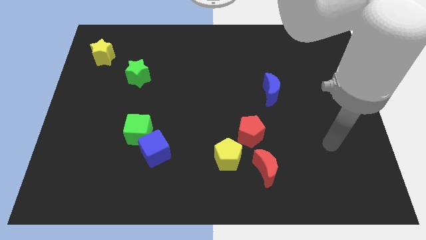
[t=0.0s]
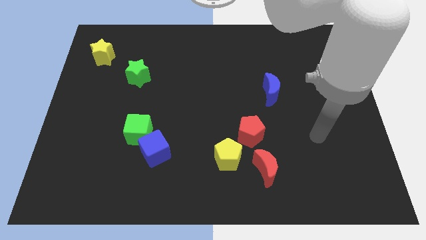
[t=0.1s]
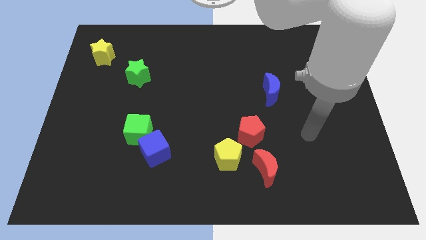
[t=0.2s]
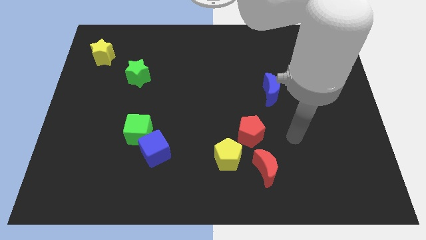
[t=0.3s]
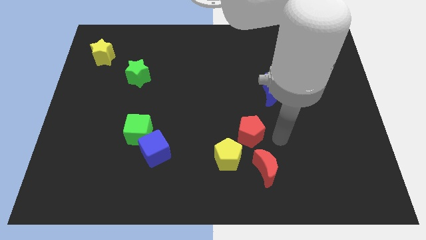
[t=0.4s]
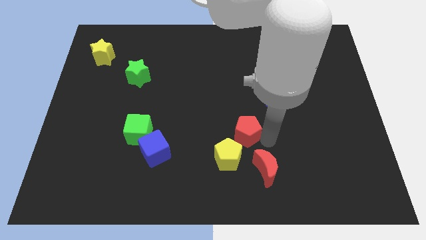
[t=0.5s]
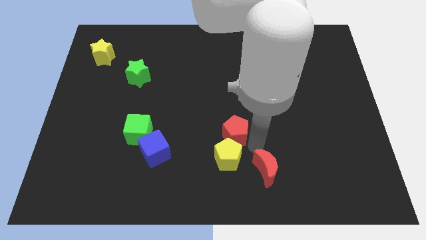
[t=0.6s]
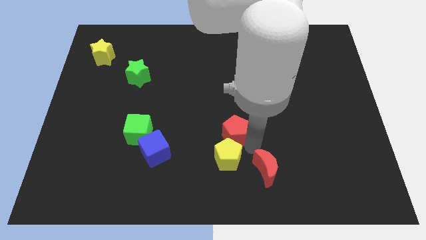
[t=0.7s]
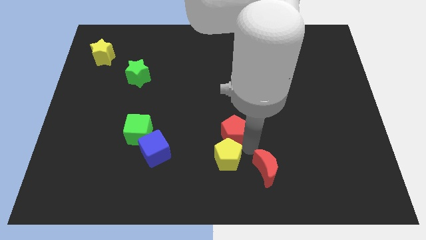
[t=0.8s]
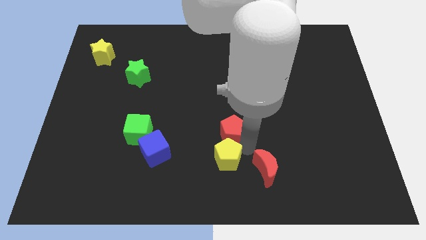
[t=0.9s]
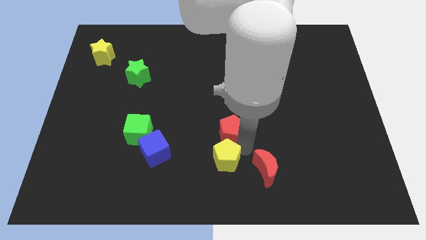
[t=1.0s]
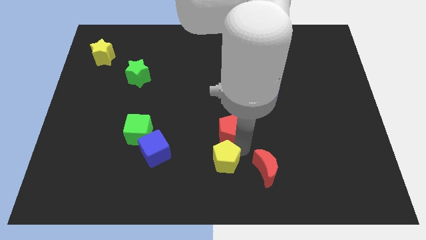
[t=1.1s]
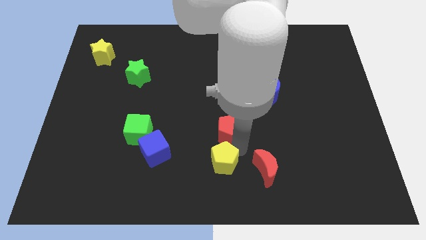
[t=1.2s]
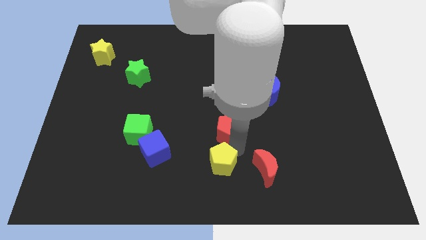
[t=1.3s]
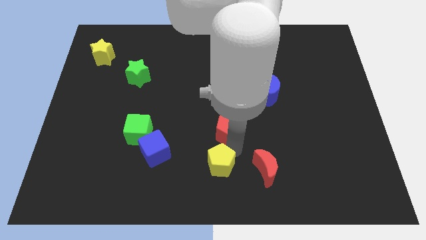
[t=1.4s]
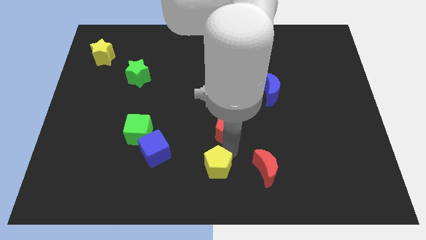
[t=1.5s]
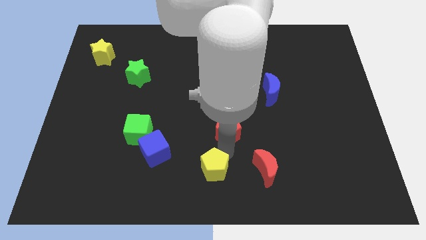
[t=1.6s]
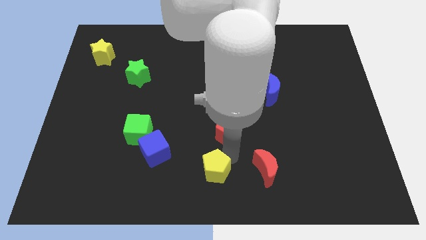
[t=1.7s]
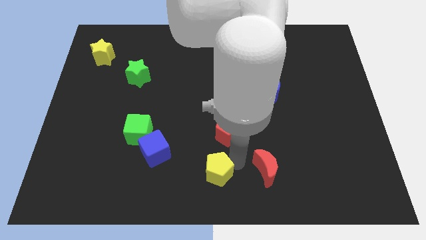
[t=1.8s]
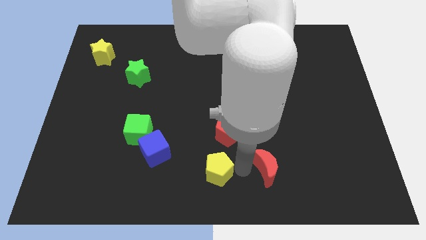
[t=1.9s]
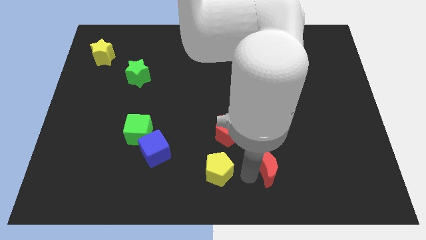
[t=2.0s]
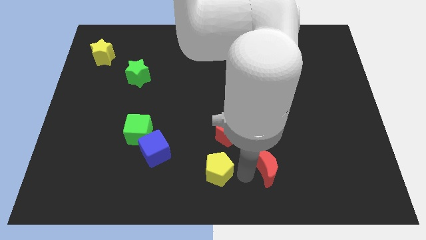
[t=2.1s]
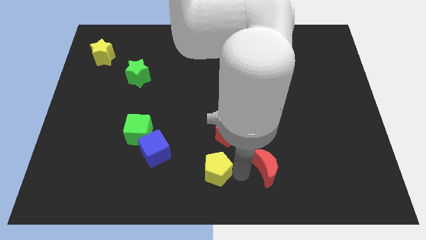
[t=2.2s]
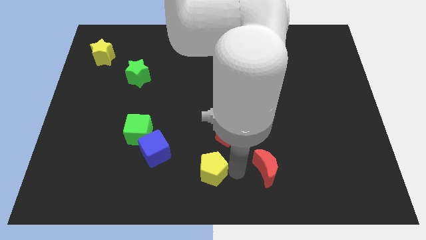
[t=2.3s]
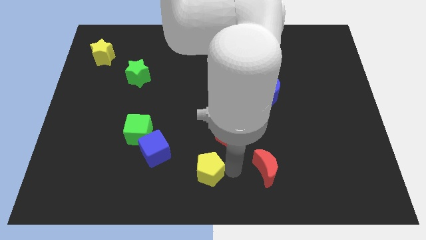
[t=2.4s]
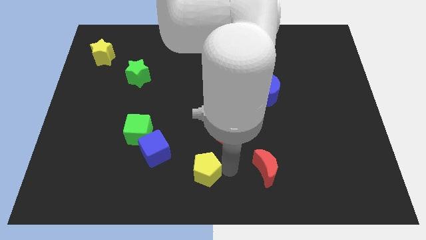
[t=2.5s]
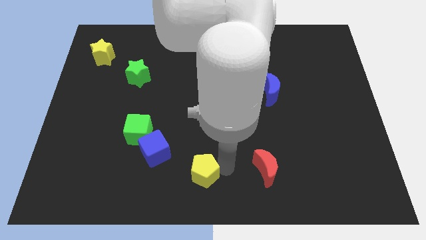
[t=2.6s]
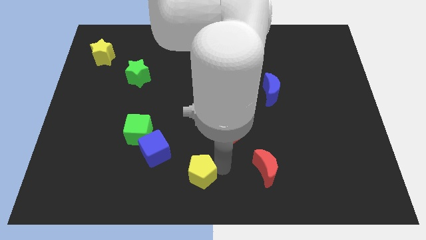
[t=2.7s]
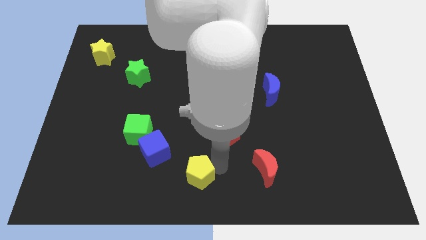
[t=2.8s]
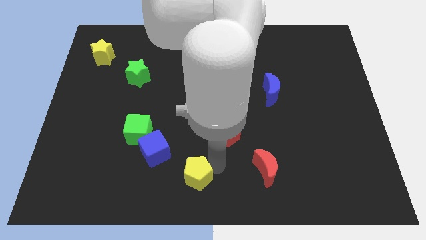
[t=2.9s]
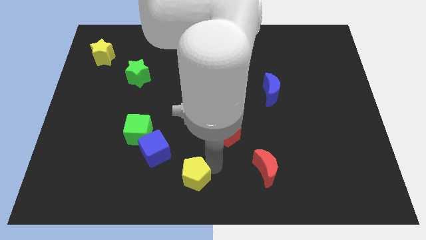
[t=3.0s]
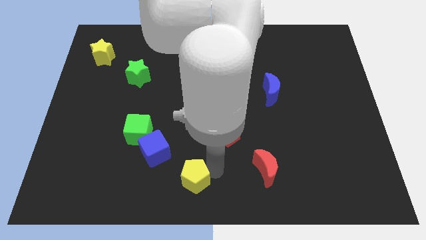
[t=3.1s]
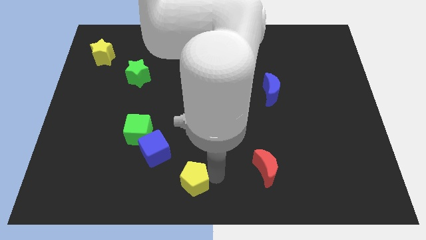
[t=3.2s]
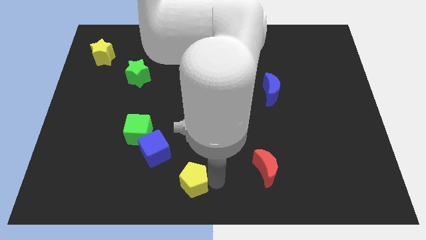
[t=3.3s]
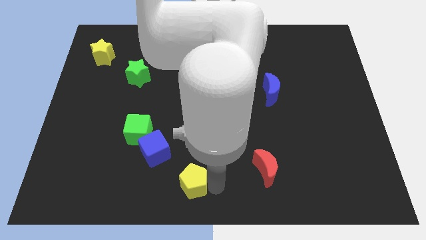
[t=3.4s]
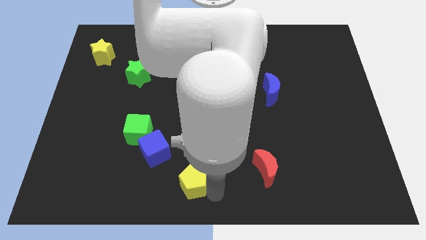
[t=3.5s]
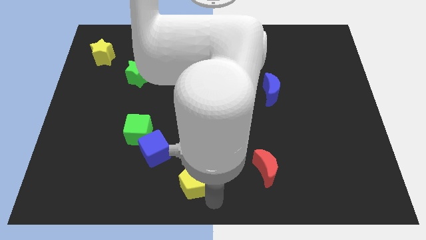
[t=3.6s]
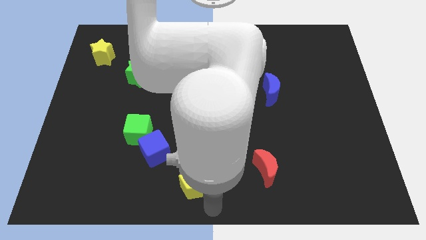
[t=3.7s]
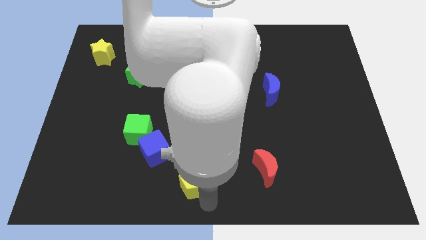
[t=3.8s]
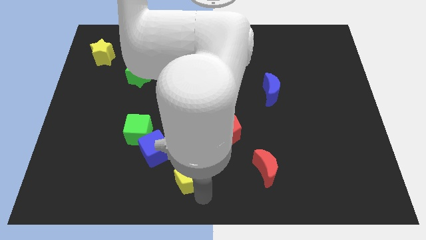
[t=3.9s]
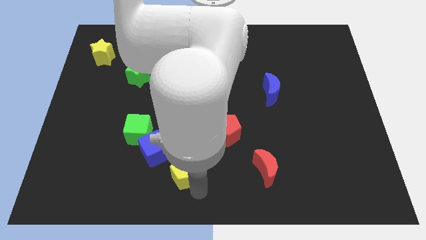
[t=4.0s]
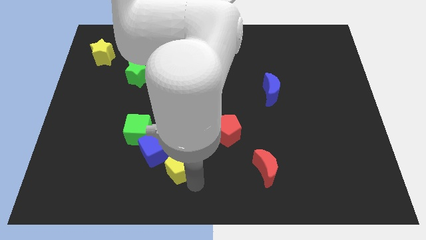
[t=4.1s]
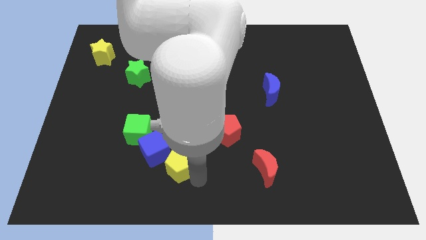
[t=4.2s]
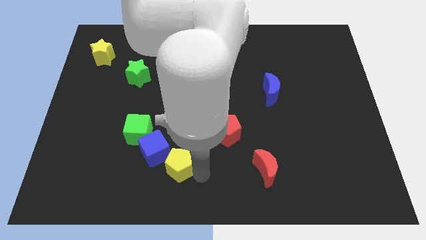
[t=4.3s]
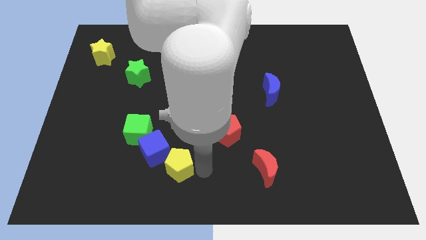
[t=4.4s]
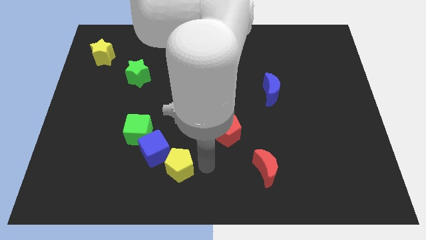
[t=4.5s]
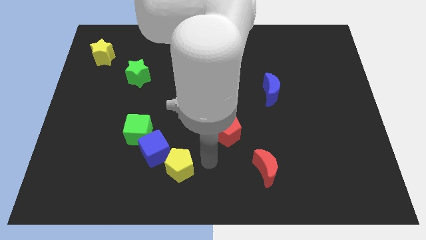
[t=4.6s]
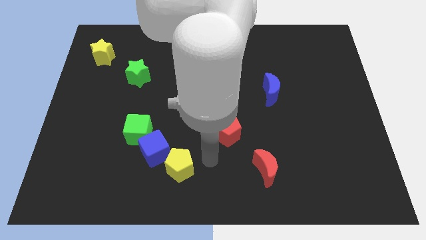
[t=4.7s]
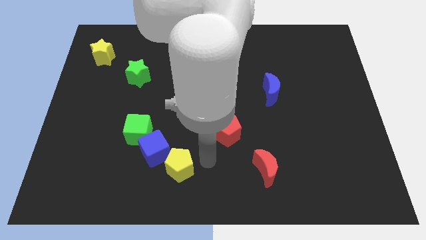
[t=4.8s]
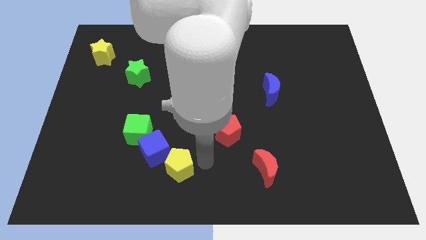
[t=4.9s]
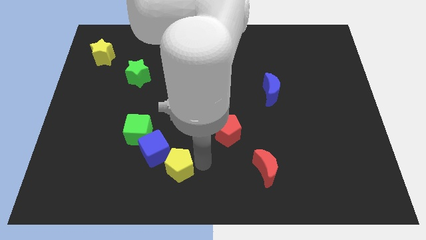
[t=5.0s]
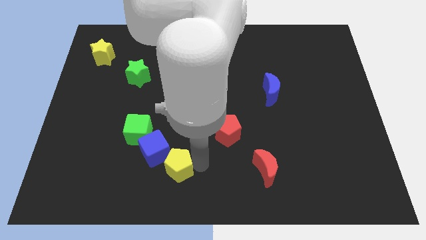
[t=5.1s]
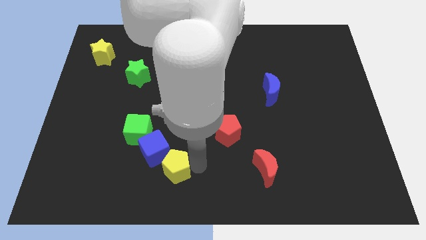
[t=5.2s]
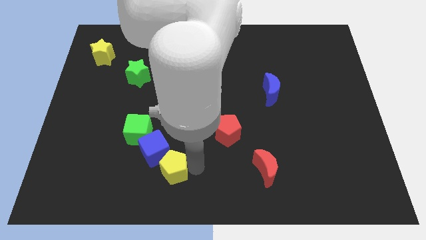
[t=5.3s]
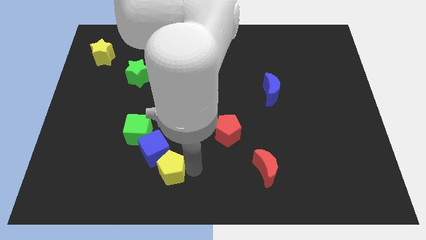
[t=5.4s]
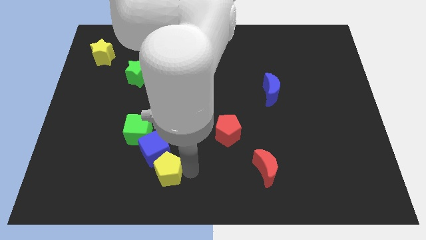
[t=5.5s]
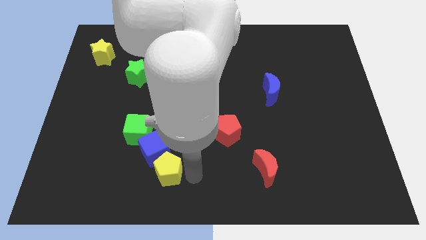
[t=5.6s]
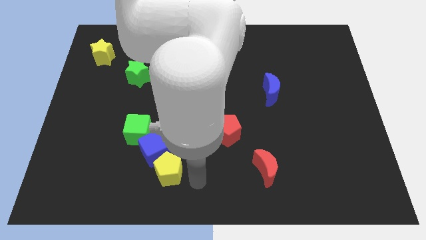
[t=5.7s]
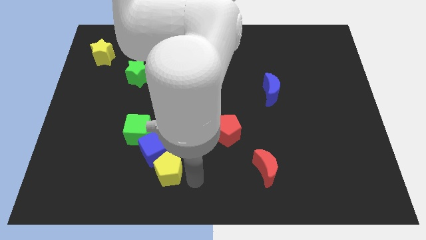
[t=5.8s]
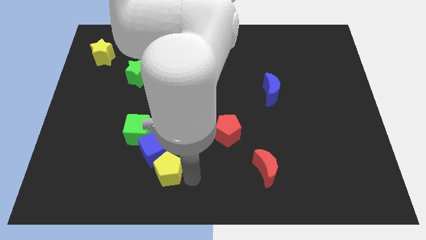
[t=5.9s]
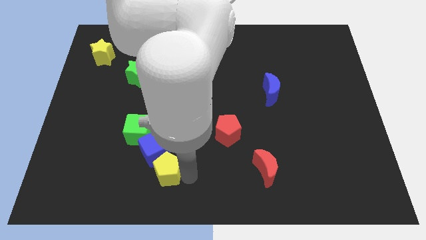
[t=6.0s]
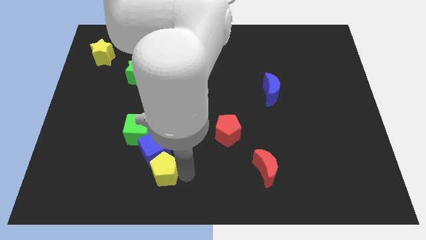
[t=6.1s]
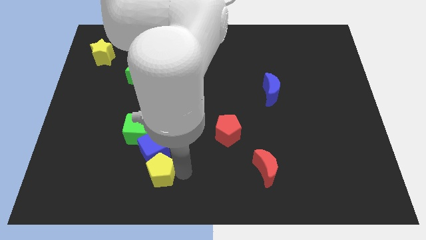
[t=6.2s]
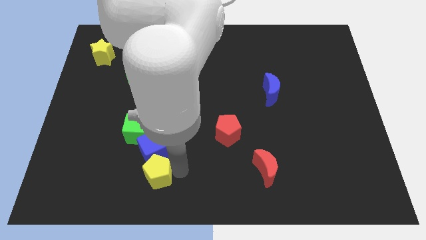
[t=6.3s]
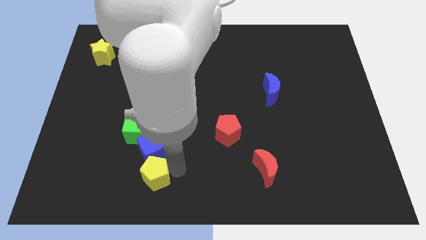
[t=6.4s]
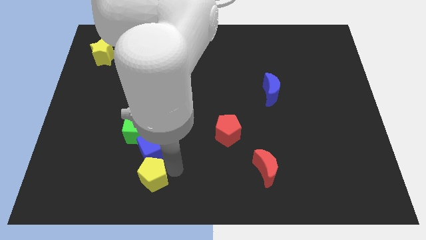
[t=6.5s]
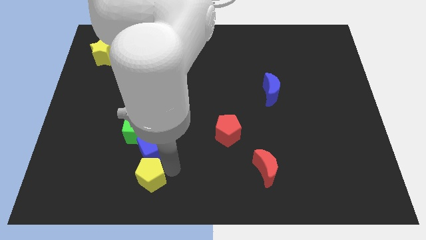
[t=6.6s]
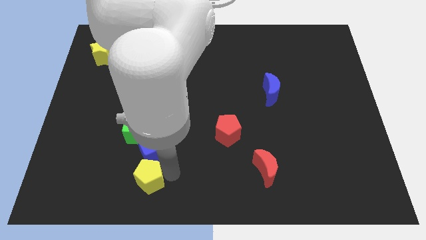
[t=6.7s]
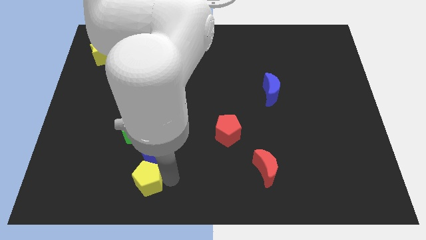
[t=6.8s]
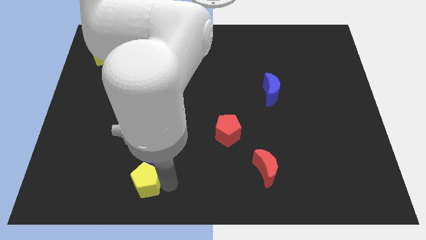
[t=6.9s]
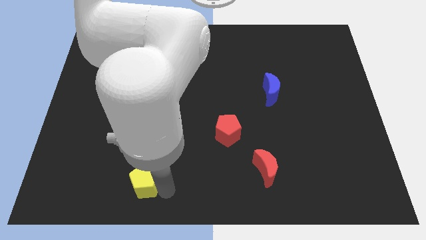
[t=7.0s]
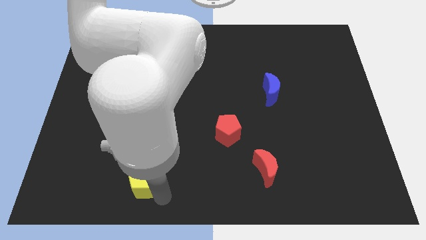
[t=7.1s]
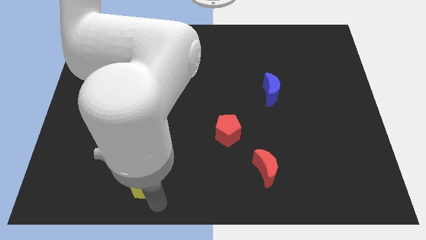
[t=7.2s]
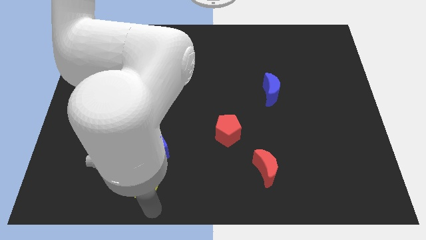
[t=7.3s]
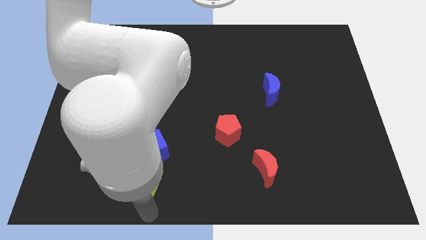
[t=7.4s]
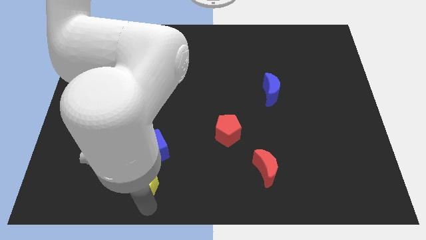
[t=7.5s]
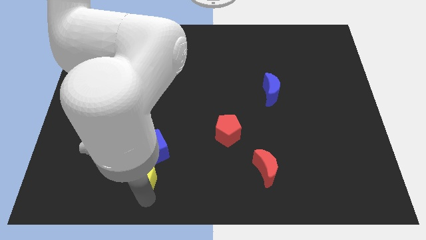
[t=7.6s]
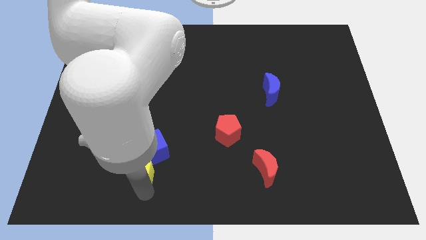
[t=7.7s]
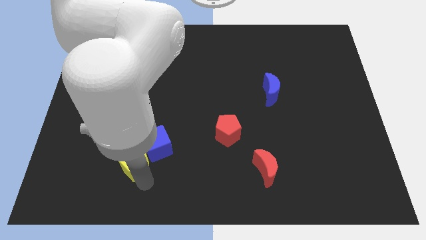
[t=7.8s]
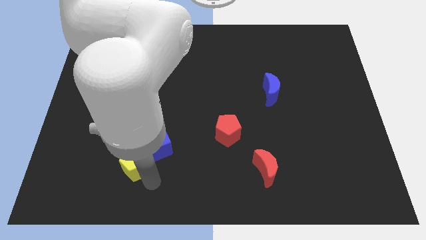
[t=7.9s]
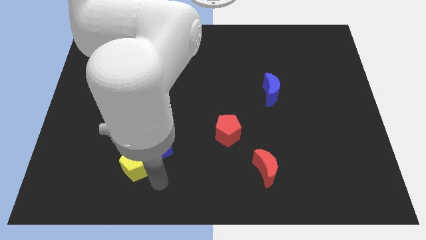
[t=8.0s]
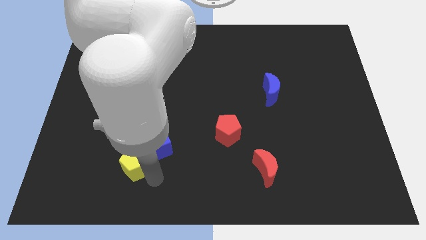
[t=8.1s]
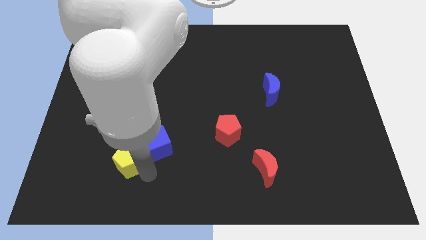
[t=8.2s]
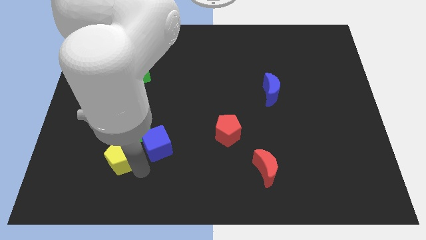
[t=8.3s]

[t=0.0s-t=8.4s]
move the yellow pentagon to the bottom left side of the green cube
